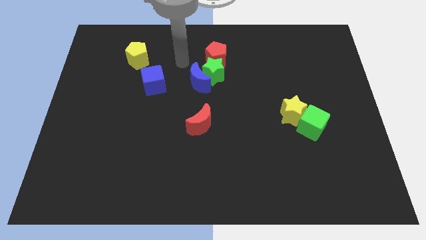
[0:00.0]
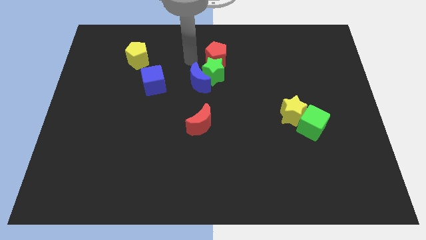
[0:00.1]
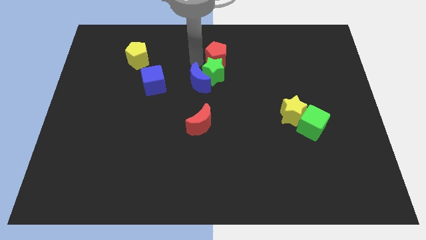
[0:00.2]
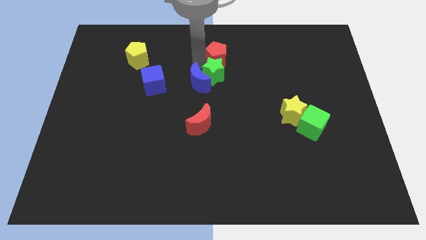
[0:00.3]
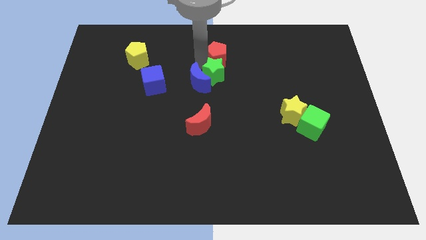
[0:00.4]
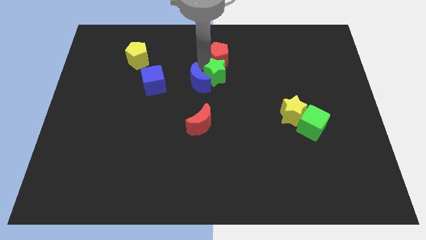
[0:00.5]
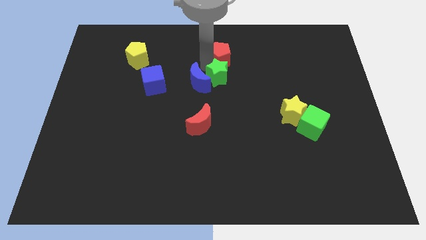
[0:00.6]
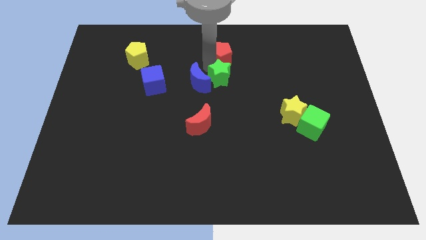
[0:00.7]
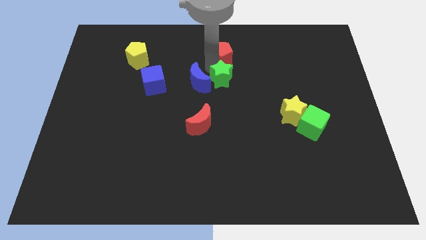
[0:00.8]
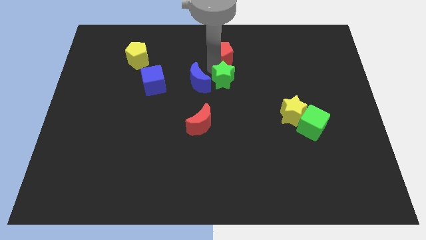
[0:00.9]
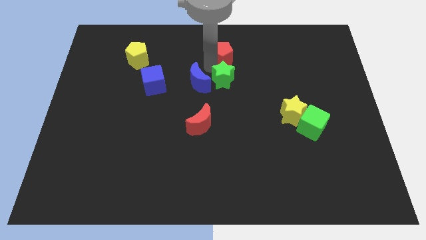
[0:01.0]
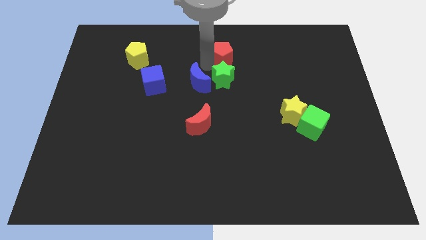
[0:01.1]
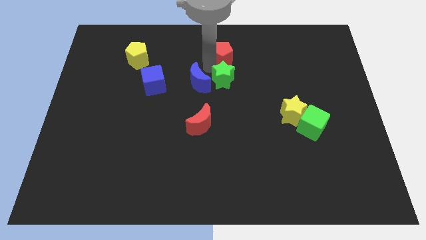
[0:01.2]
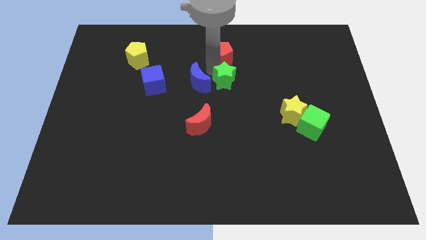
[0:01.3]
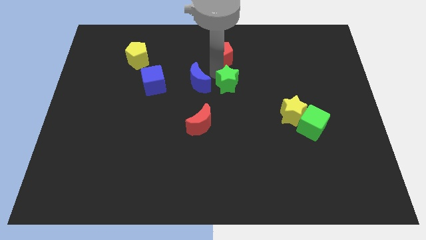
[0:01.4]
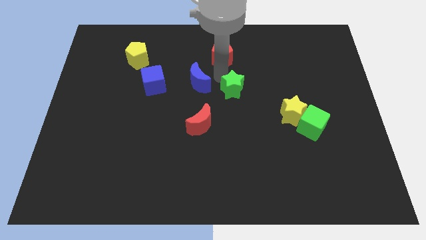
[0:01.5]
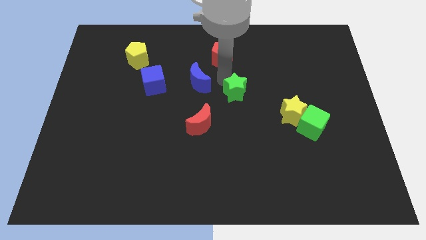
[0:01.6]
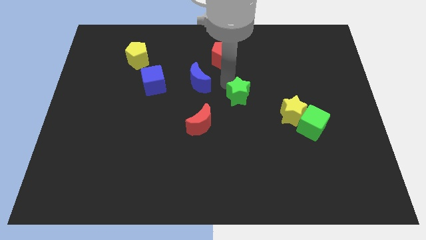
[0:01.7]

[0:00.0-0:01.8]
pull the green star apart from the blue moon and red pentagon

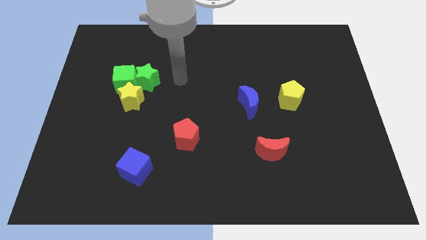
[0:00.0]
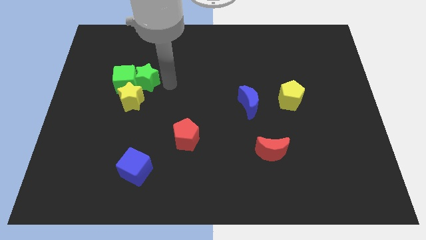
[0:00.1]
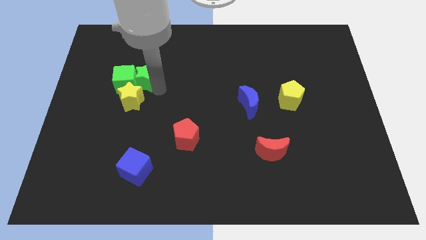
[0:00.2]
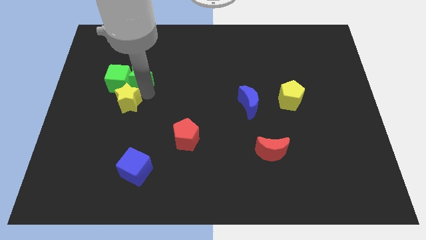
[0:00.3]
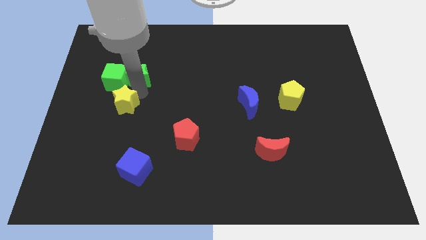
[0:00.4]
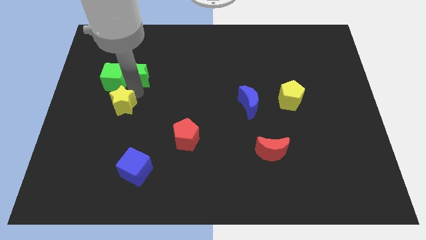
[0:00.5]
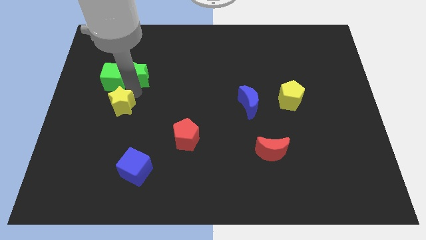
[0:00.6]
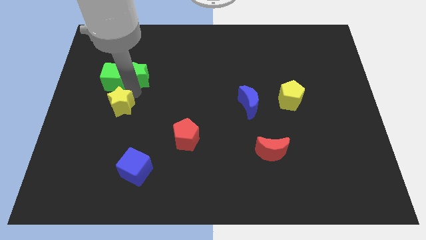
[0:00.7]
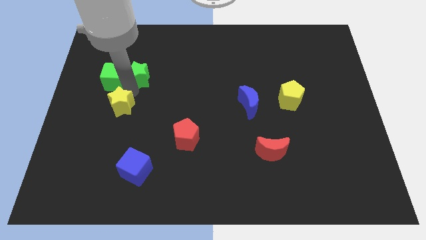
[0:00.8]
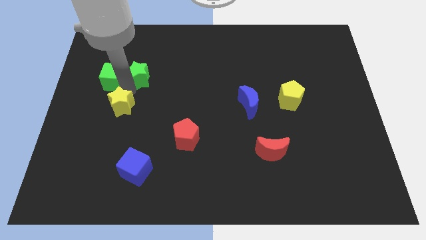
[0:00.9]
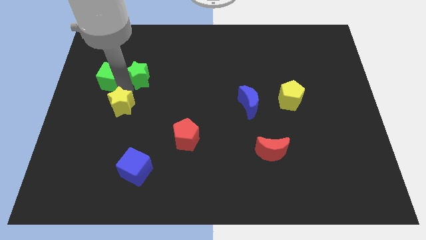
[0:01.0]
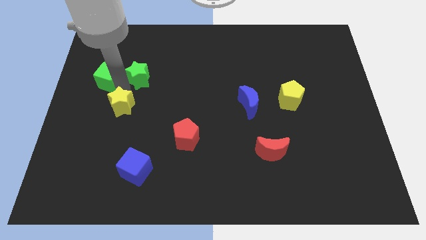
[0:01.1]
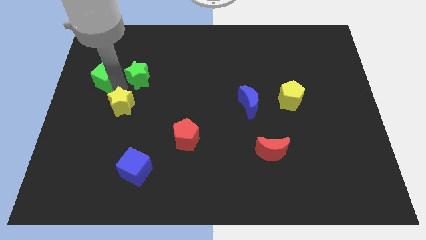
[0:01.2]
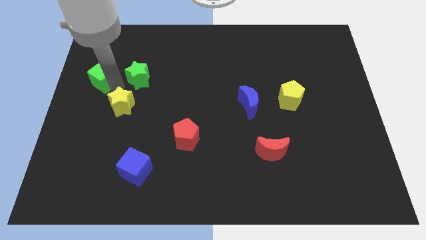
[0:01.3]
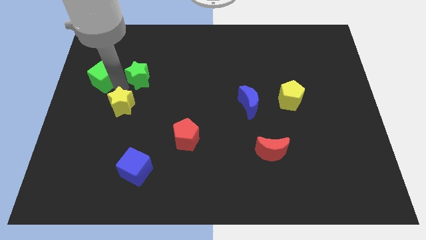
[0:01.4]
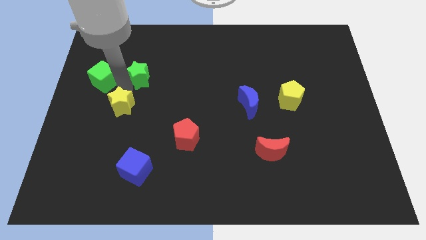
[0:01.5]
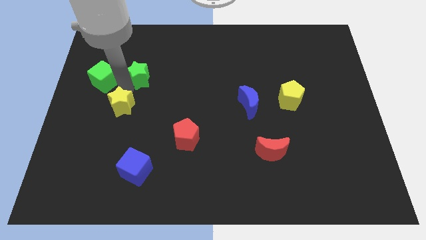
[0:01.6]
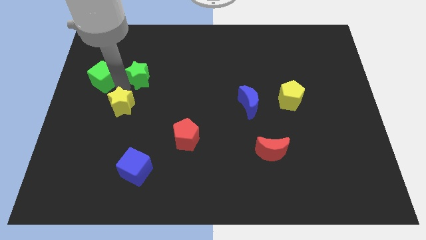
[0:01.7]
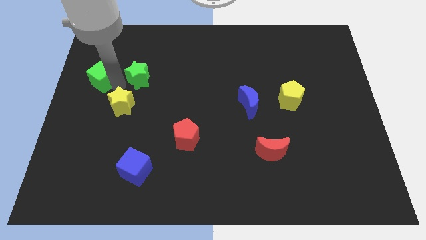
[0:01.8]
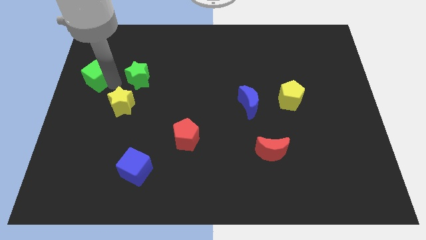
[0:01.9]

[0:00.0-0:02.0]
move the green cube away from the green star and yellow star

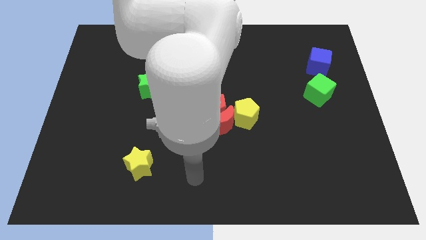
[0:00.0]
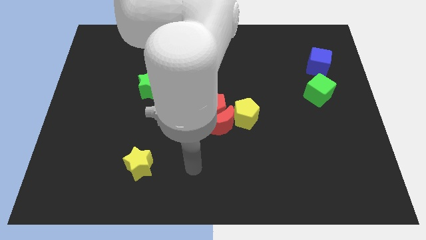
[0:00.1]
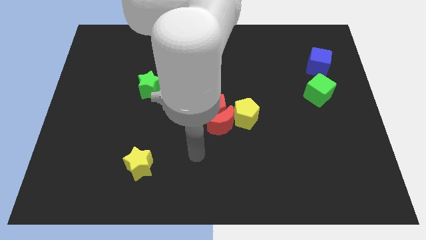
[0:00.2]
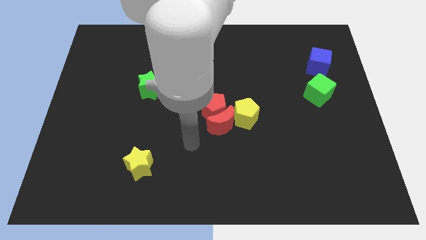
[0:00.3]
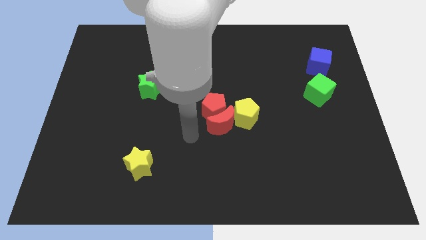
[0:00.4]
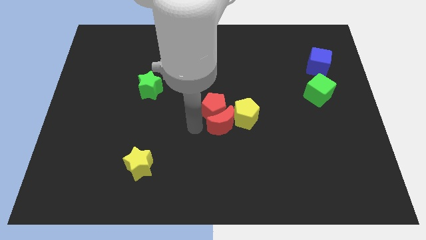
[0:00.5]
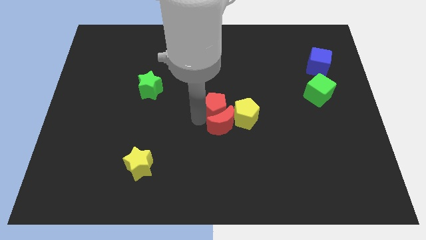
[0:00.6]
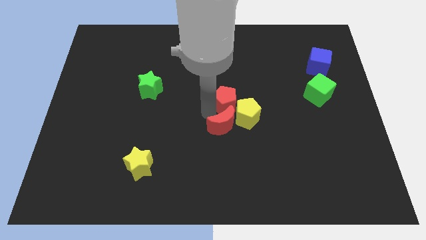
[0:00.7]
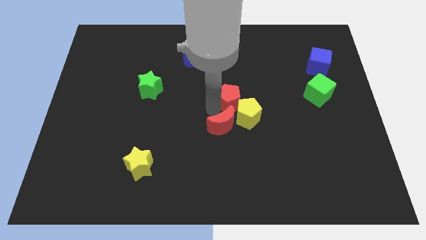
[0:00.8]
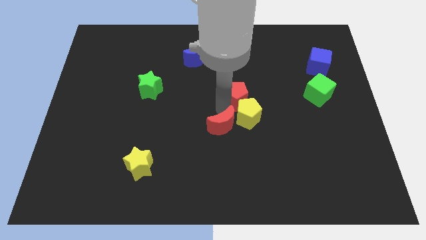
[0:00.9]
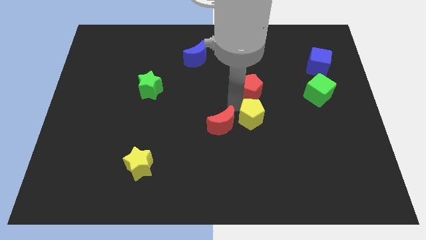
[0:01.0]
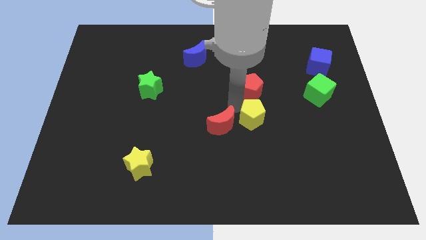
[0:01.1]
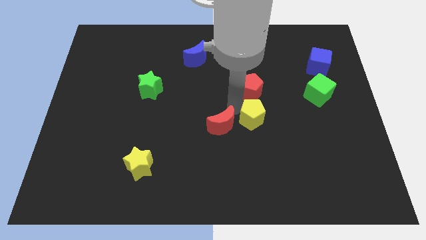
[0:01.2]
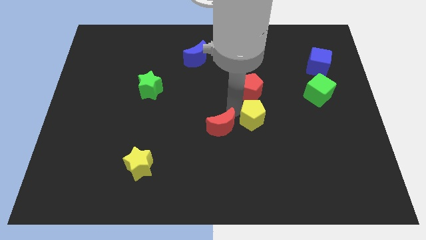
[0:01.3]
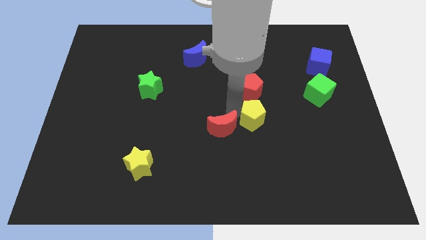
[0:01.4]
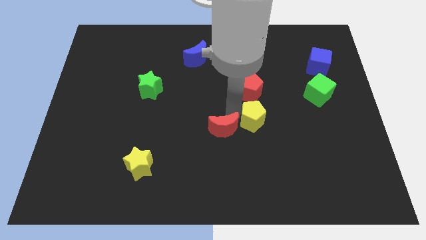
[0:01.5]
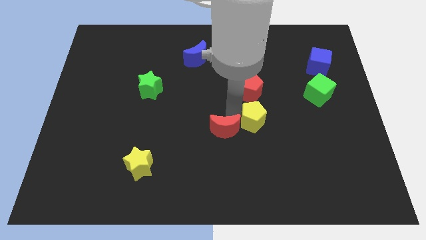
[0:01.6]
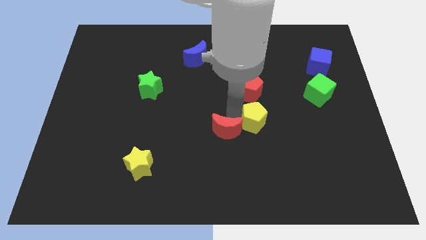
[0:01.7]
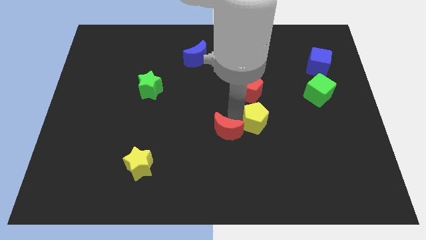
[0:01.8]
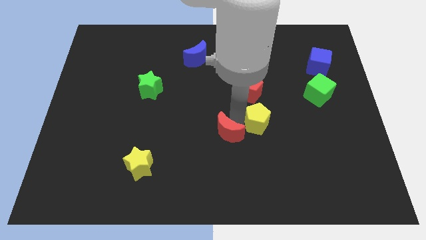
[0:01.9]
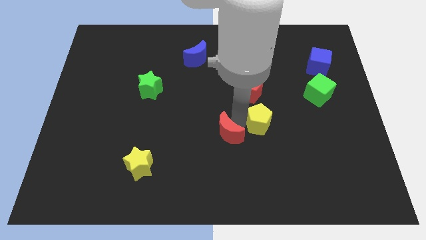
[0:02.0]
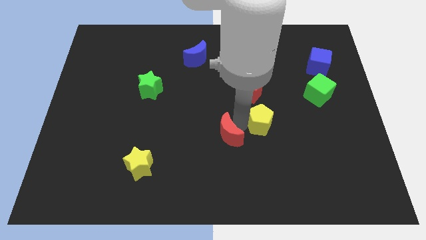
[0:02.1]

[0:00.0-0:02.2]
separate the red moon from the red pentagon and yellow pentagon

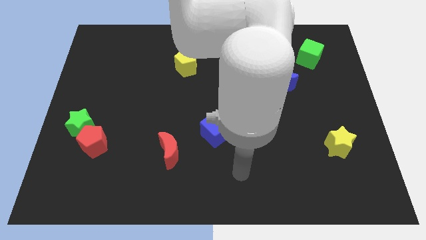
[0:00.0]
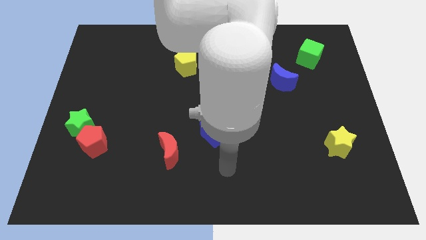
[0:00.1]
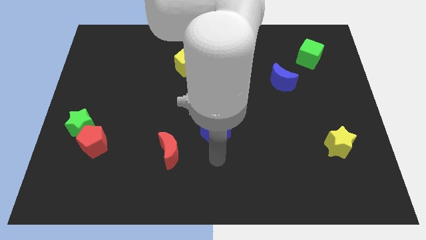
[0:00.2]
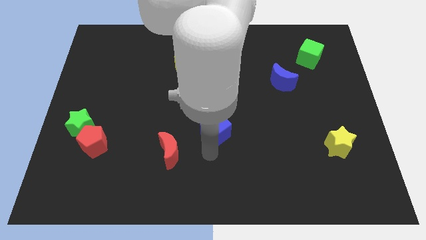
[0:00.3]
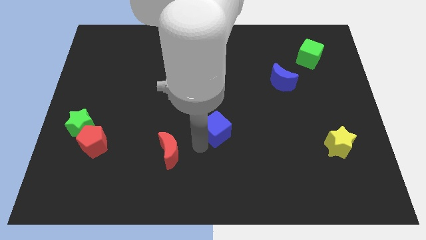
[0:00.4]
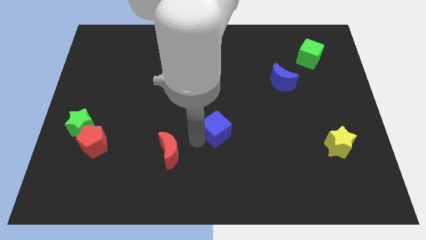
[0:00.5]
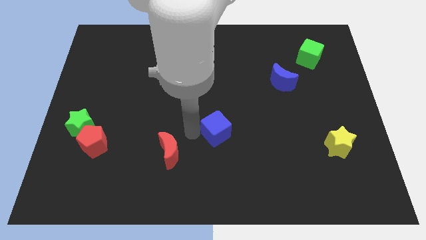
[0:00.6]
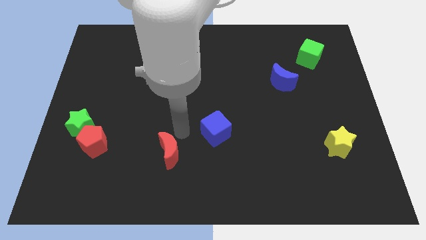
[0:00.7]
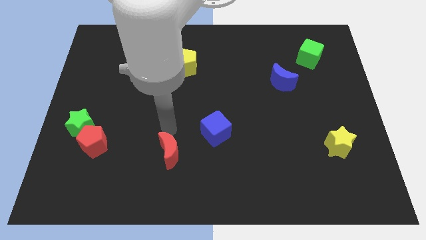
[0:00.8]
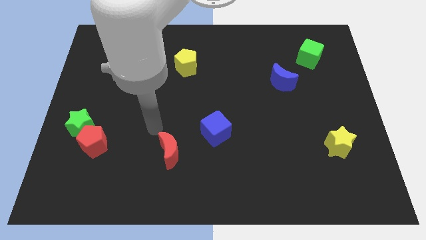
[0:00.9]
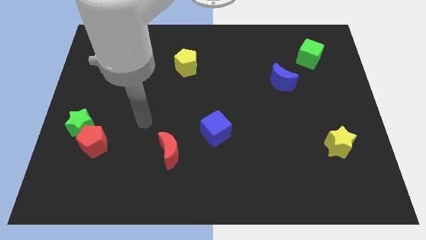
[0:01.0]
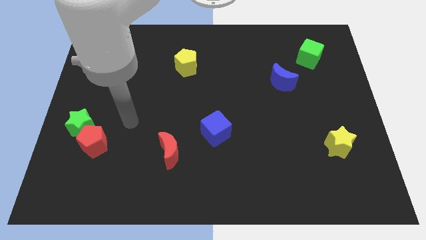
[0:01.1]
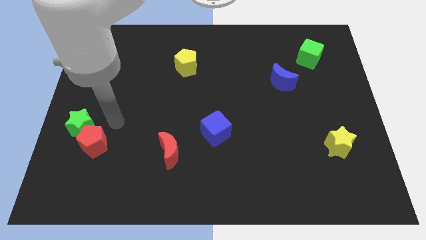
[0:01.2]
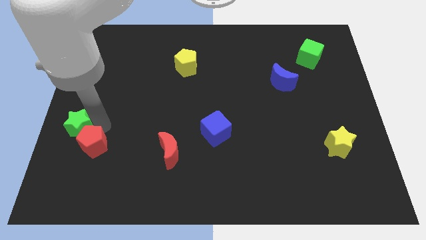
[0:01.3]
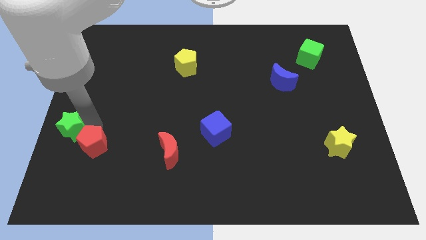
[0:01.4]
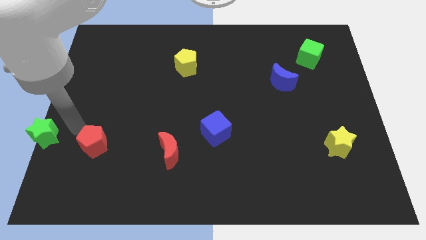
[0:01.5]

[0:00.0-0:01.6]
pull the red pentagon apart from the green star

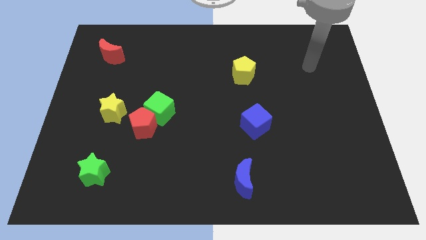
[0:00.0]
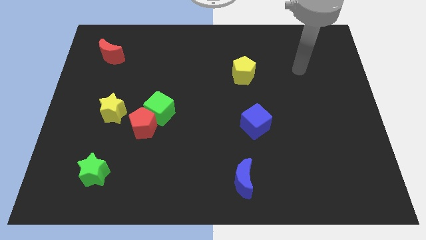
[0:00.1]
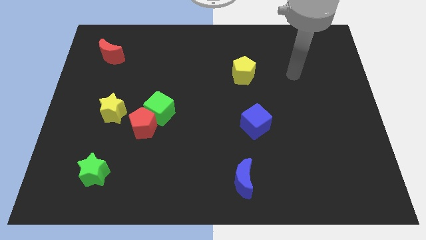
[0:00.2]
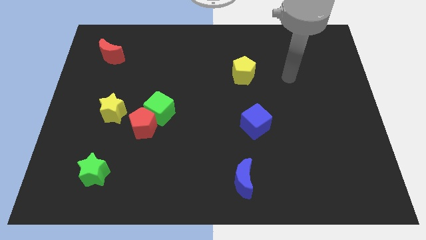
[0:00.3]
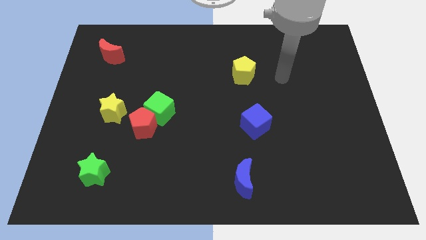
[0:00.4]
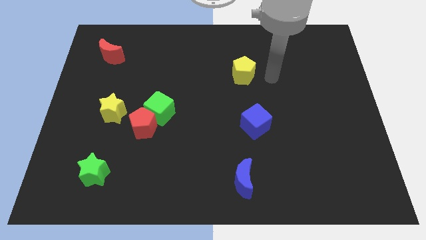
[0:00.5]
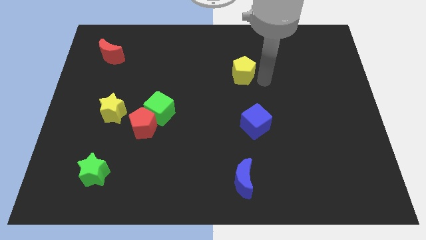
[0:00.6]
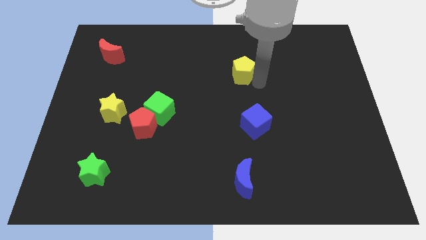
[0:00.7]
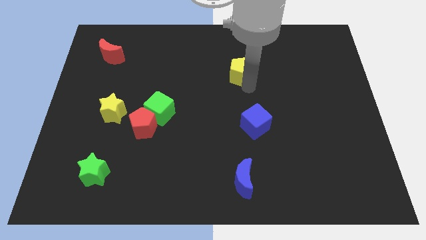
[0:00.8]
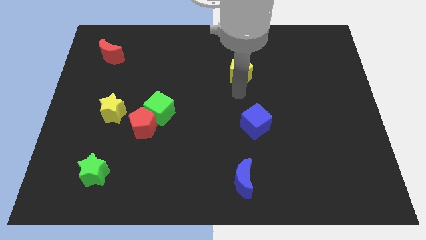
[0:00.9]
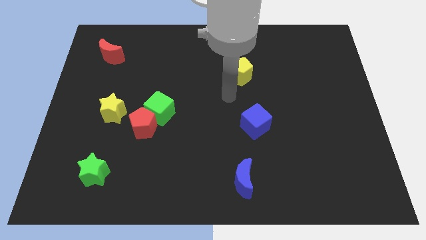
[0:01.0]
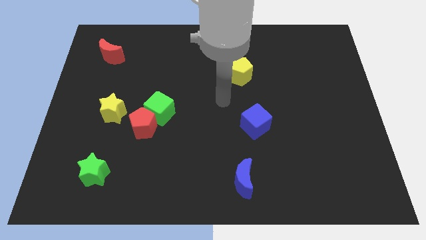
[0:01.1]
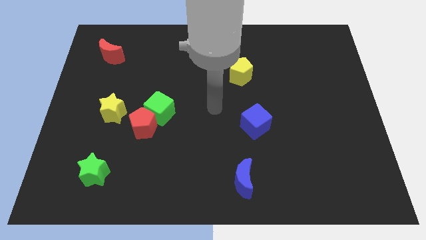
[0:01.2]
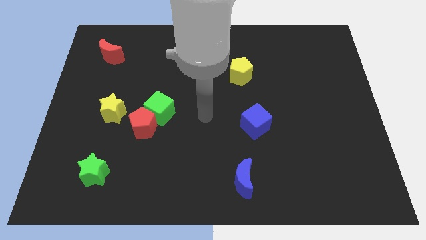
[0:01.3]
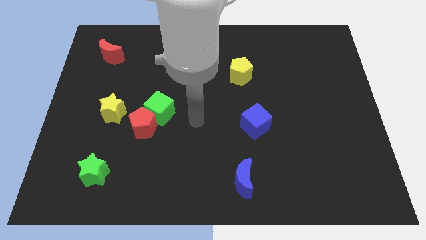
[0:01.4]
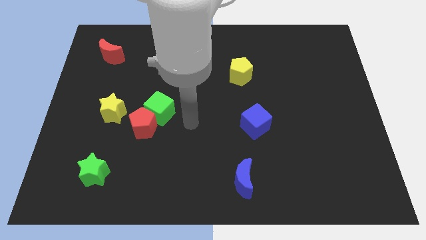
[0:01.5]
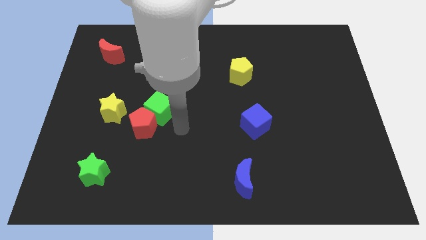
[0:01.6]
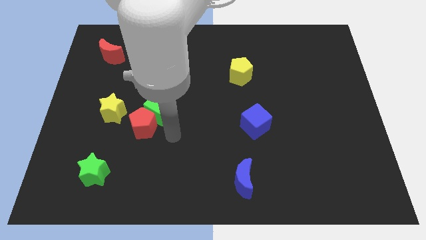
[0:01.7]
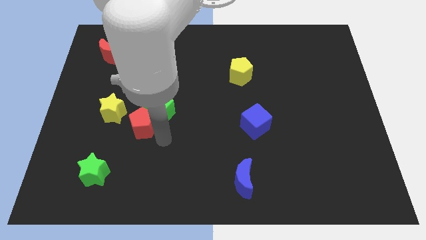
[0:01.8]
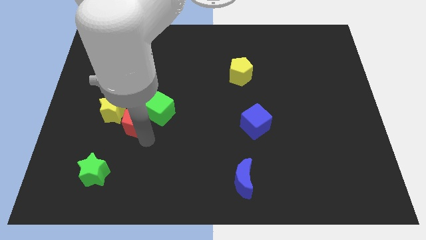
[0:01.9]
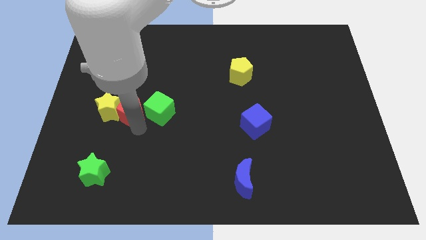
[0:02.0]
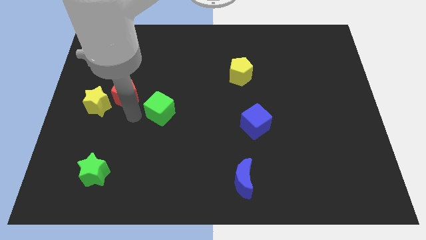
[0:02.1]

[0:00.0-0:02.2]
pull the green cube apart from the red pentagon
